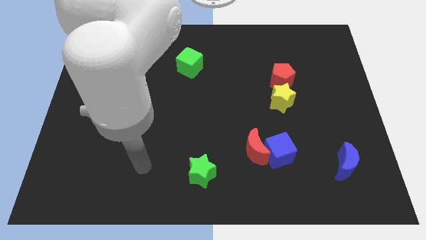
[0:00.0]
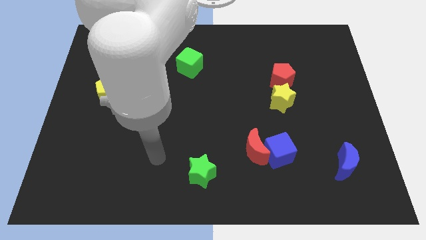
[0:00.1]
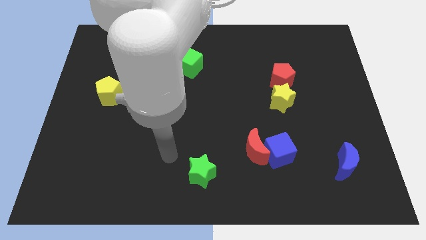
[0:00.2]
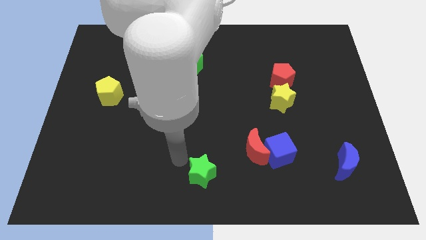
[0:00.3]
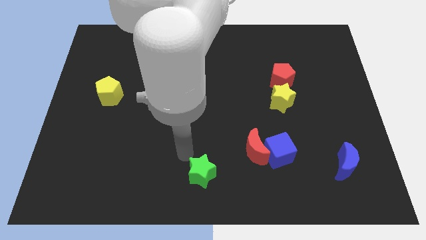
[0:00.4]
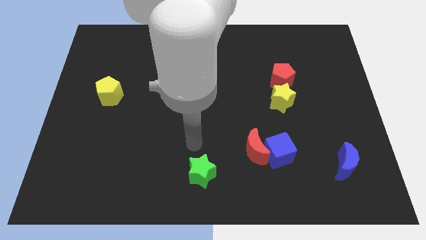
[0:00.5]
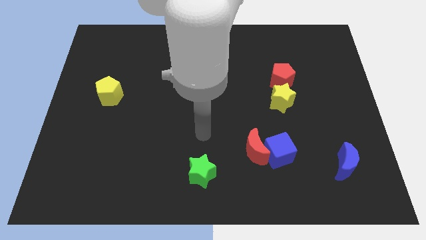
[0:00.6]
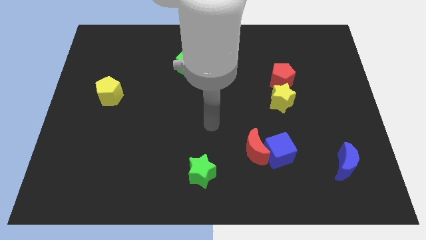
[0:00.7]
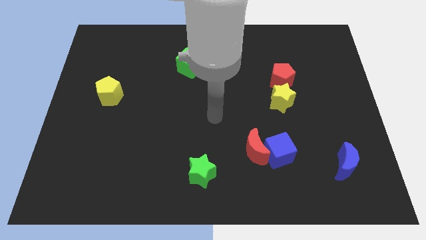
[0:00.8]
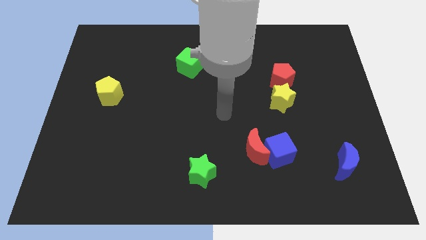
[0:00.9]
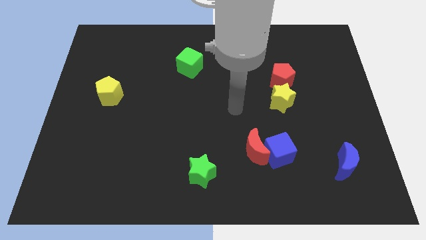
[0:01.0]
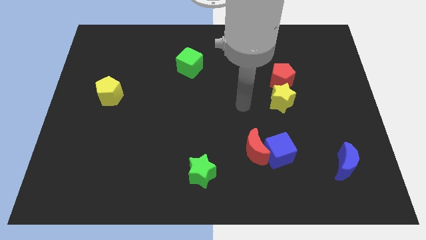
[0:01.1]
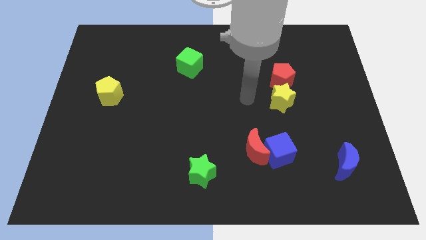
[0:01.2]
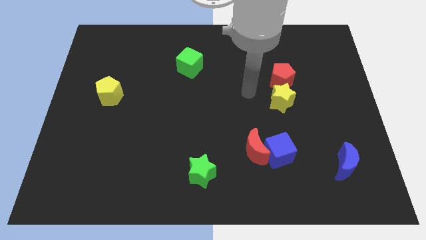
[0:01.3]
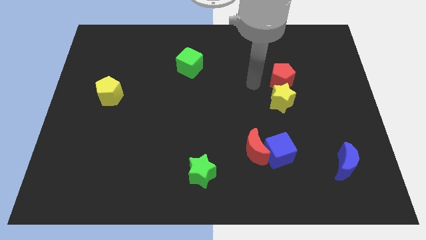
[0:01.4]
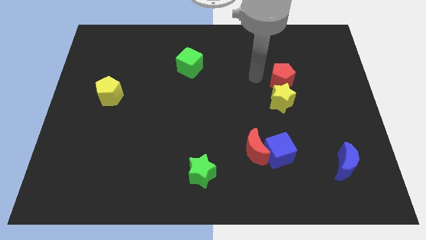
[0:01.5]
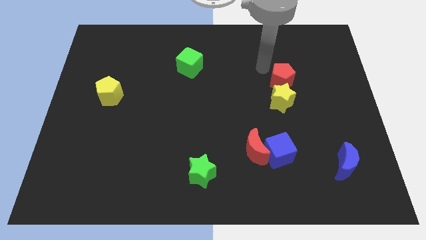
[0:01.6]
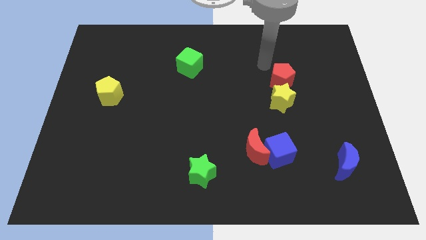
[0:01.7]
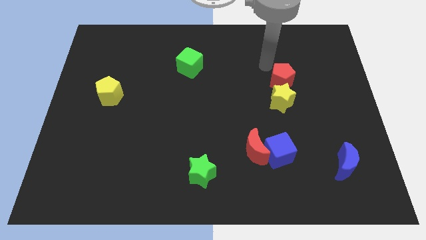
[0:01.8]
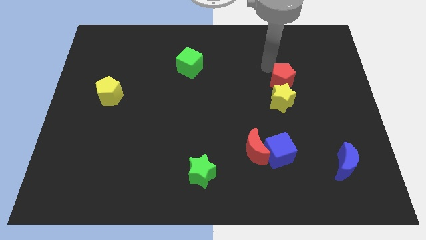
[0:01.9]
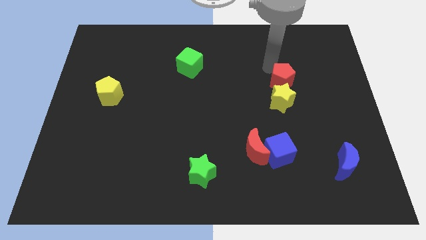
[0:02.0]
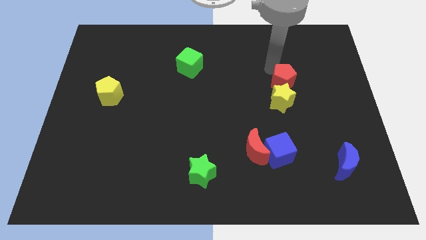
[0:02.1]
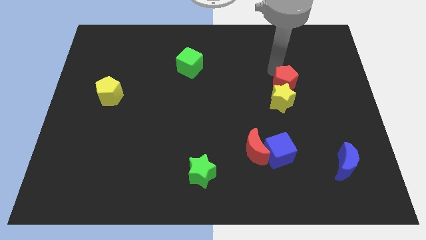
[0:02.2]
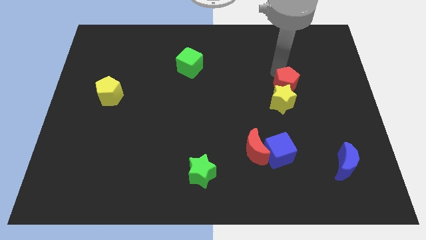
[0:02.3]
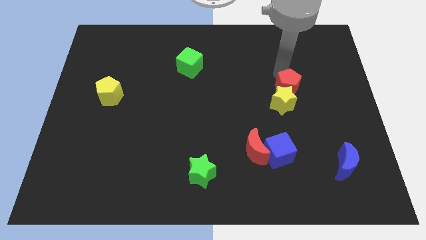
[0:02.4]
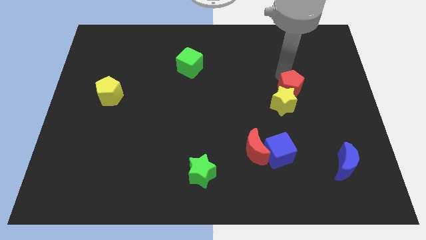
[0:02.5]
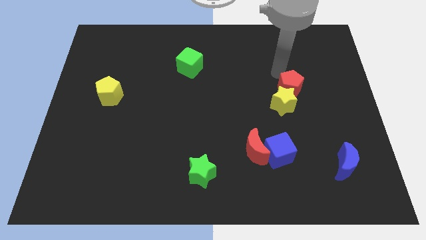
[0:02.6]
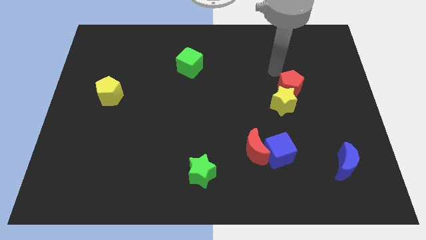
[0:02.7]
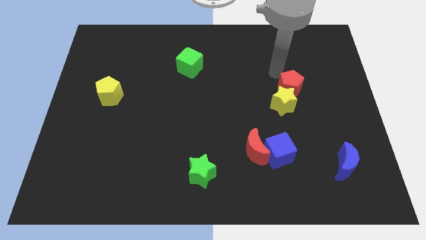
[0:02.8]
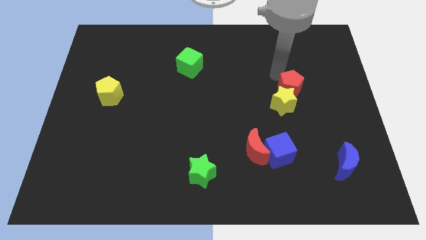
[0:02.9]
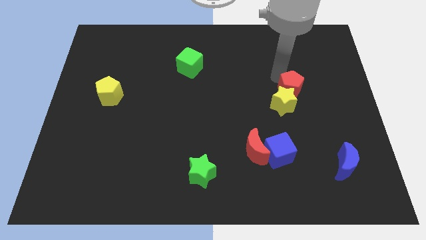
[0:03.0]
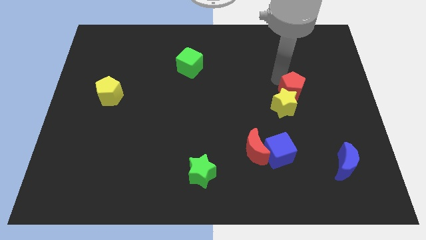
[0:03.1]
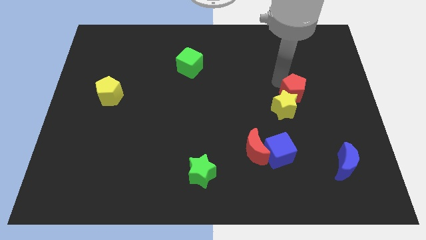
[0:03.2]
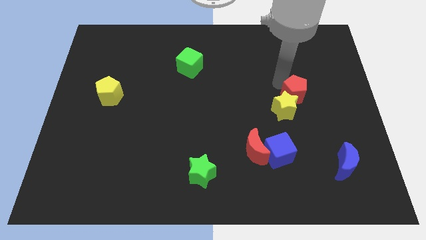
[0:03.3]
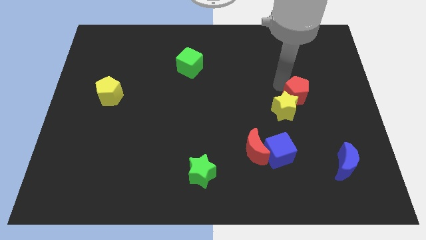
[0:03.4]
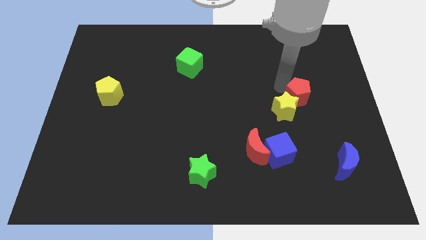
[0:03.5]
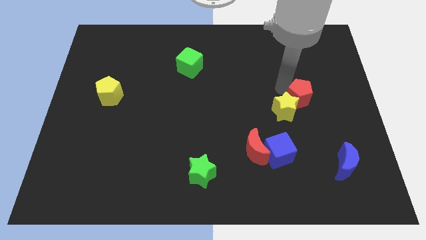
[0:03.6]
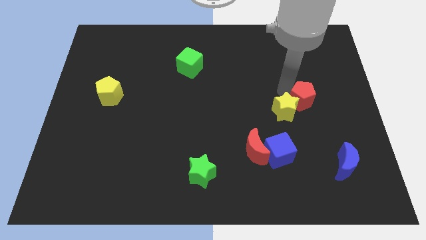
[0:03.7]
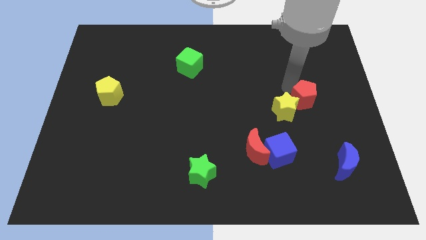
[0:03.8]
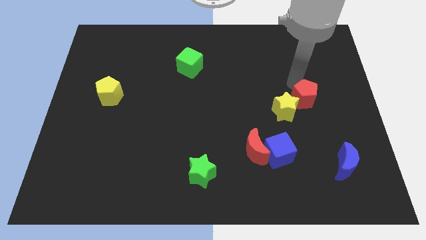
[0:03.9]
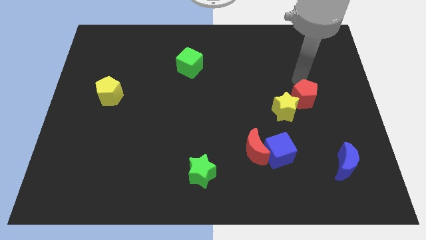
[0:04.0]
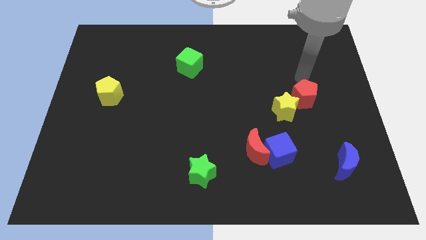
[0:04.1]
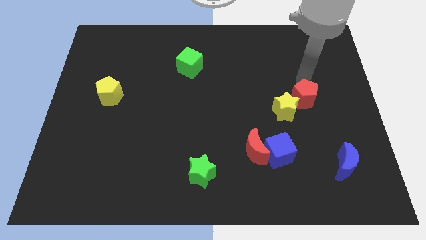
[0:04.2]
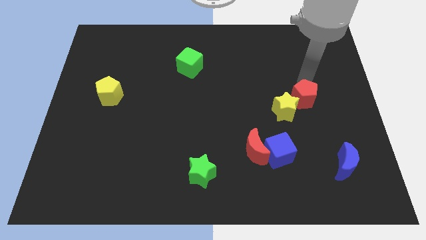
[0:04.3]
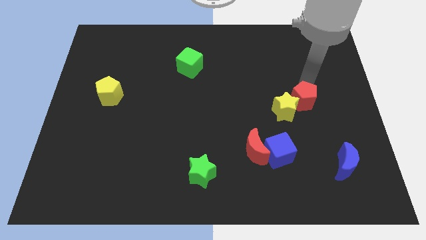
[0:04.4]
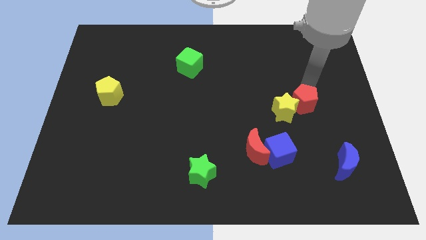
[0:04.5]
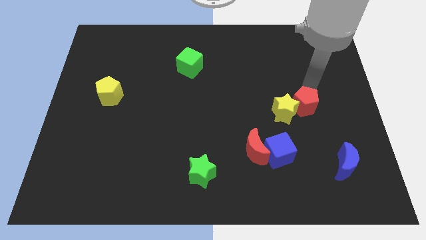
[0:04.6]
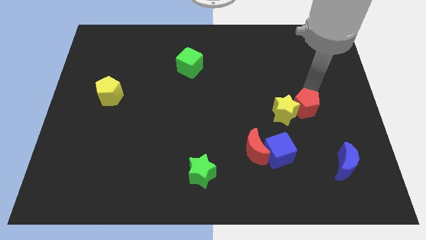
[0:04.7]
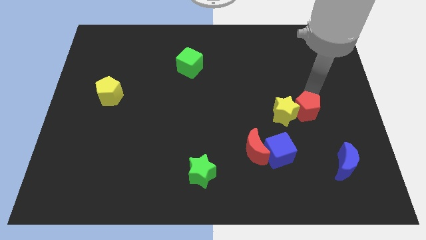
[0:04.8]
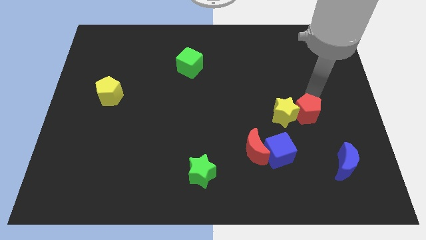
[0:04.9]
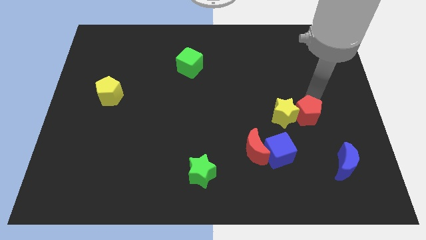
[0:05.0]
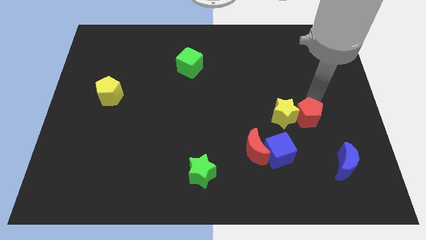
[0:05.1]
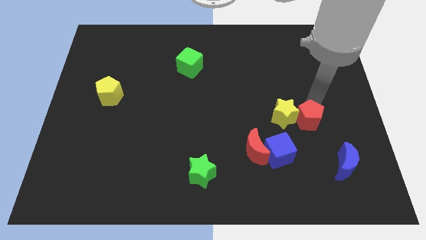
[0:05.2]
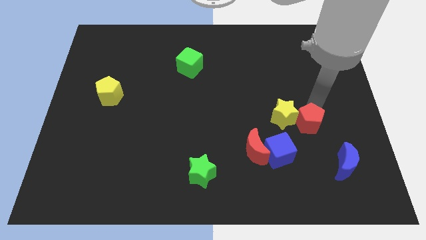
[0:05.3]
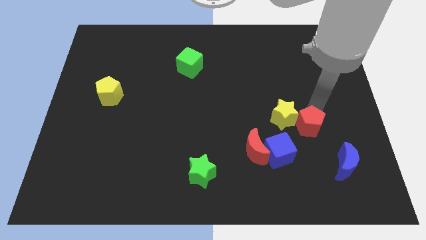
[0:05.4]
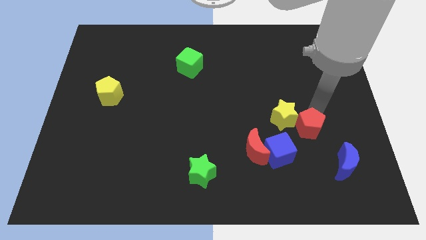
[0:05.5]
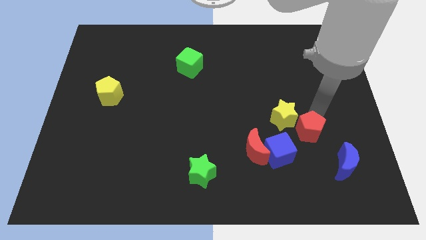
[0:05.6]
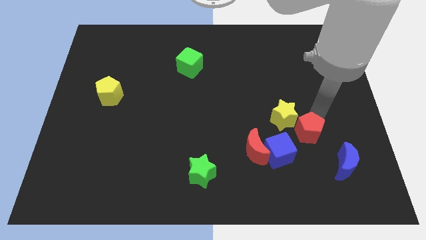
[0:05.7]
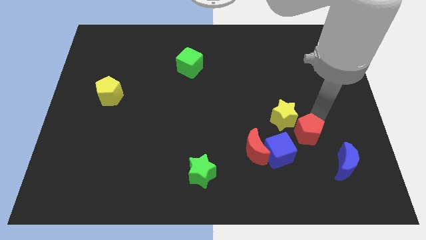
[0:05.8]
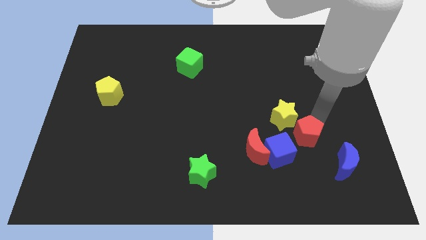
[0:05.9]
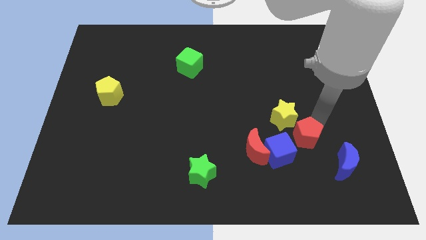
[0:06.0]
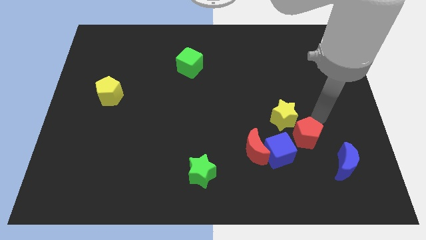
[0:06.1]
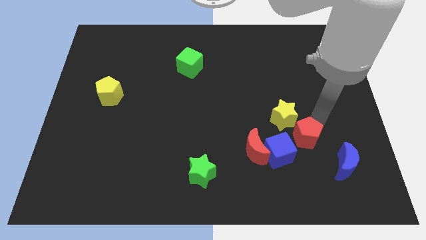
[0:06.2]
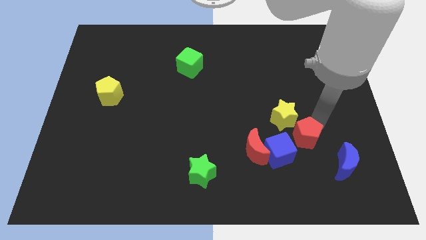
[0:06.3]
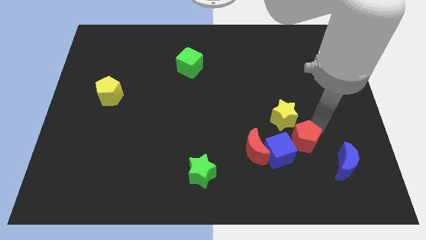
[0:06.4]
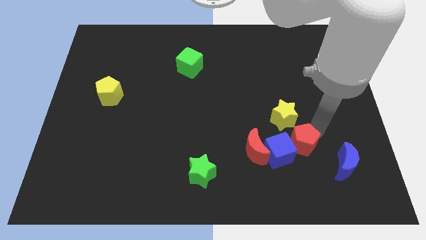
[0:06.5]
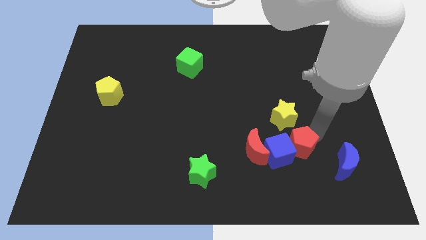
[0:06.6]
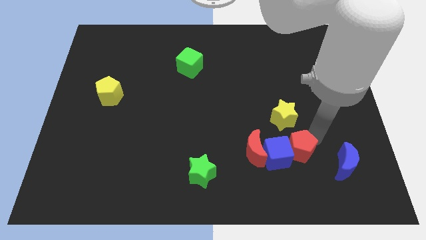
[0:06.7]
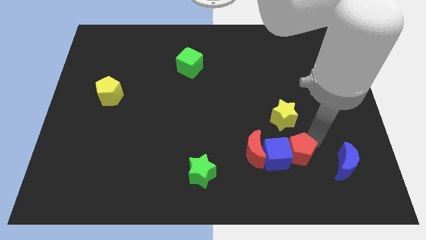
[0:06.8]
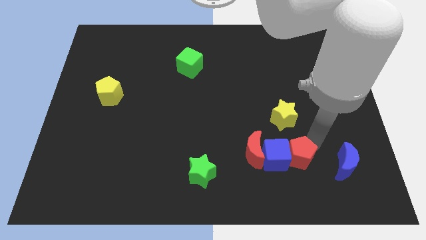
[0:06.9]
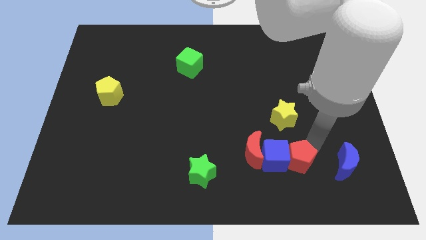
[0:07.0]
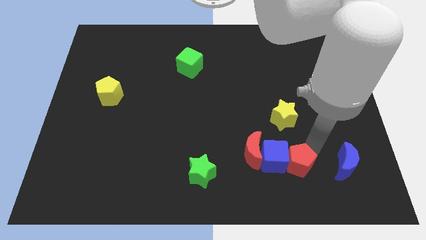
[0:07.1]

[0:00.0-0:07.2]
slide the red pentagon to the bottom right of the red moon

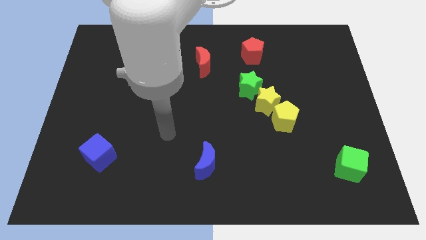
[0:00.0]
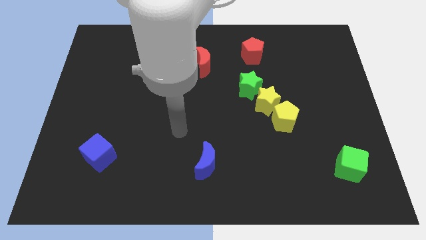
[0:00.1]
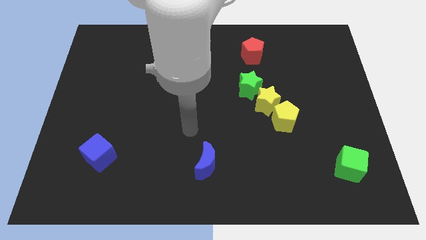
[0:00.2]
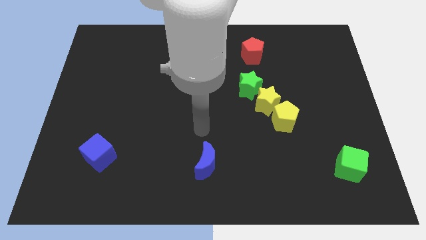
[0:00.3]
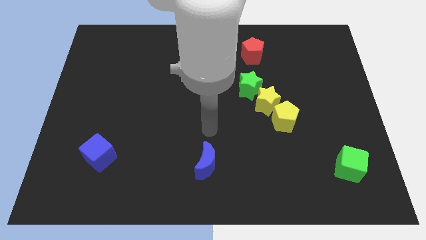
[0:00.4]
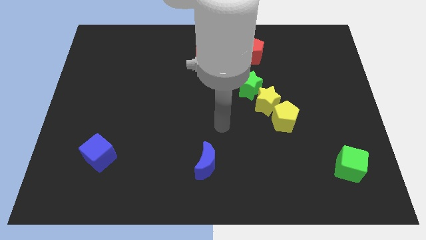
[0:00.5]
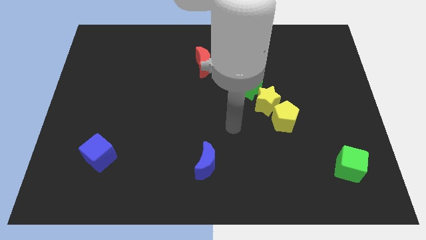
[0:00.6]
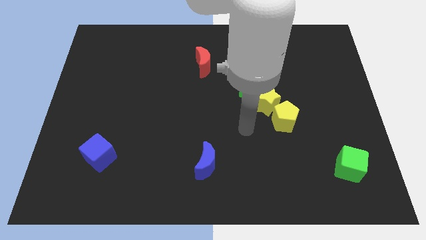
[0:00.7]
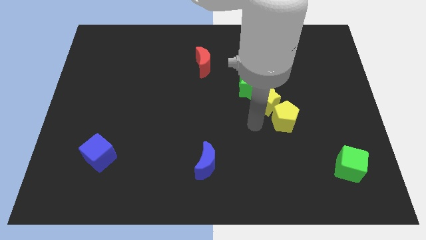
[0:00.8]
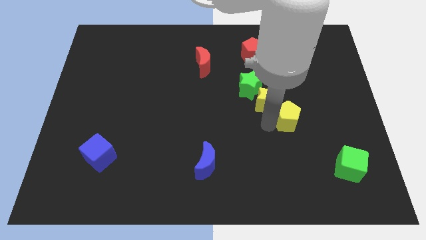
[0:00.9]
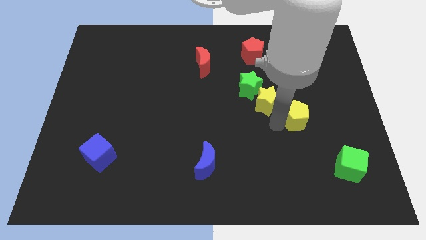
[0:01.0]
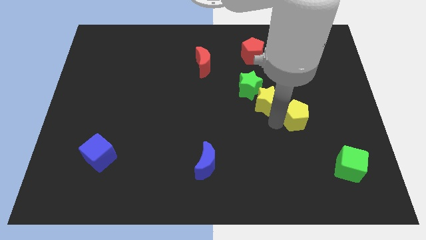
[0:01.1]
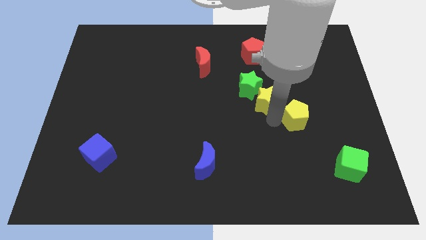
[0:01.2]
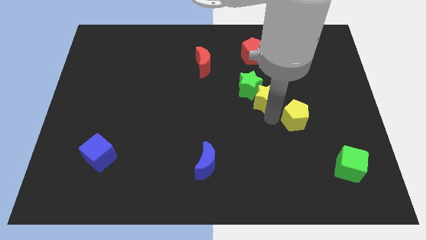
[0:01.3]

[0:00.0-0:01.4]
slide the yellow star to the bottom of the red pentagon
